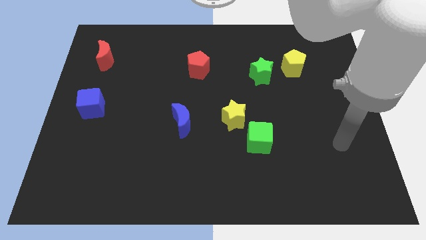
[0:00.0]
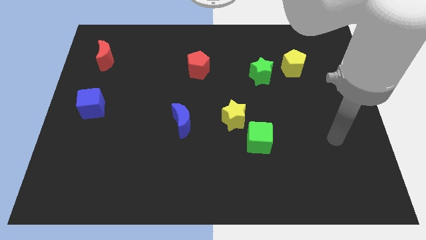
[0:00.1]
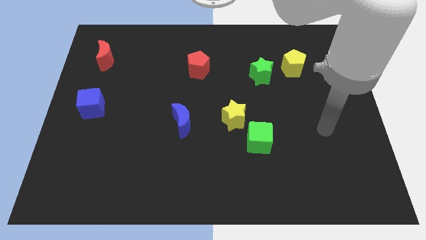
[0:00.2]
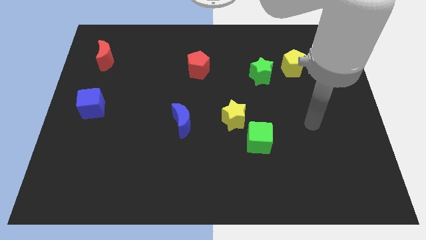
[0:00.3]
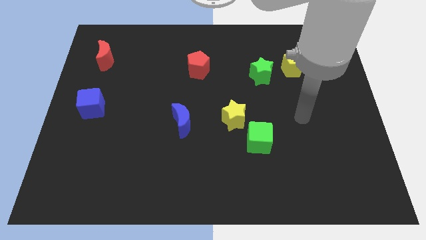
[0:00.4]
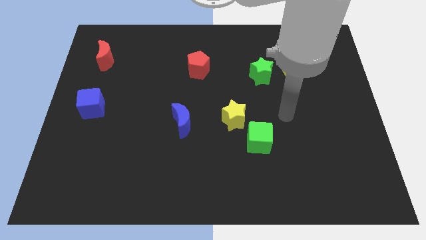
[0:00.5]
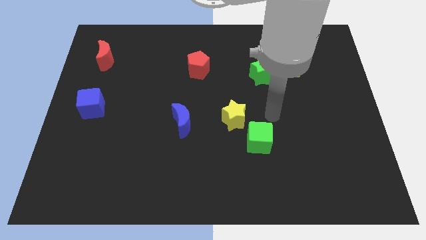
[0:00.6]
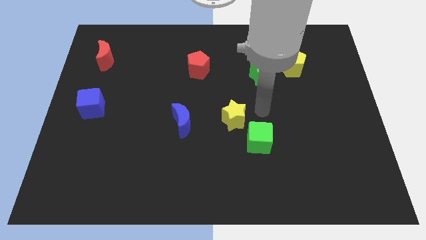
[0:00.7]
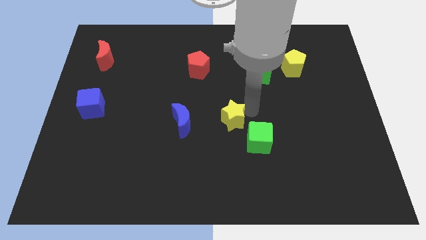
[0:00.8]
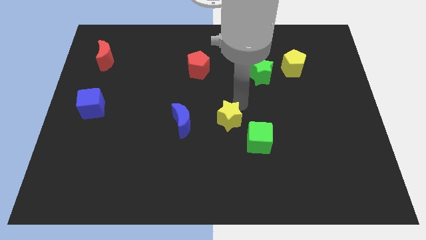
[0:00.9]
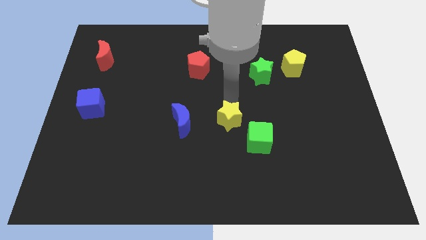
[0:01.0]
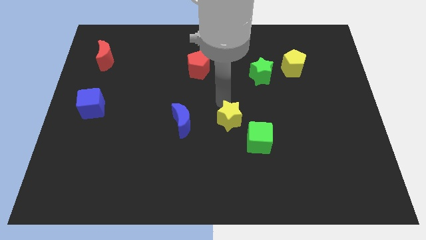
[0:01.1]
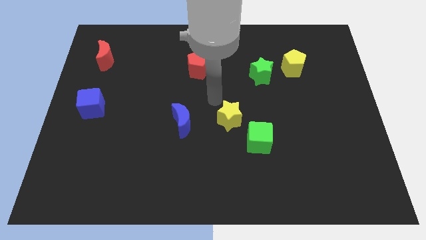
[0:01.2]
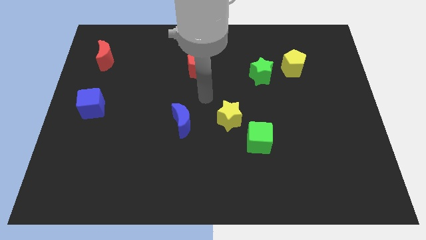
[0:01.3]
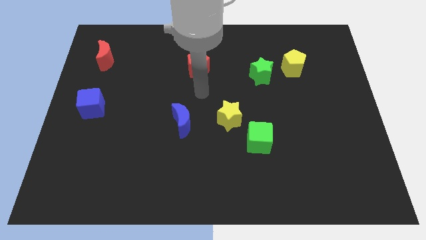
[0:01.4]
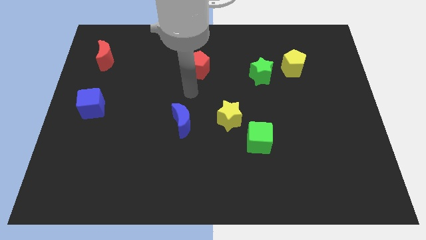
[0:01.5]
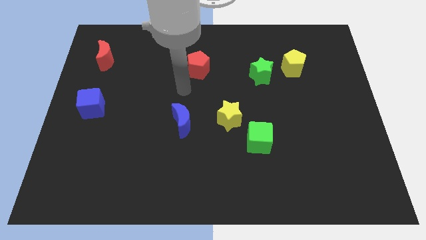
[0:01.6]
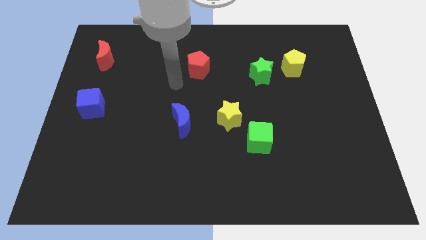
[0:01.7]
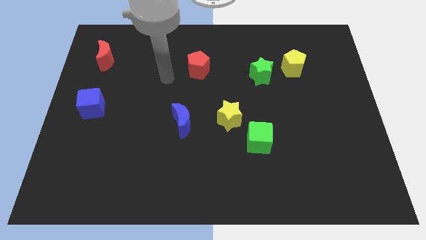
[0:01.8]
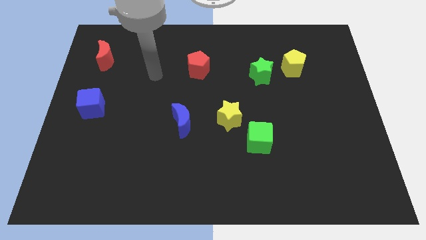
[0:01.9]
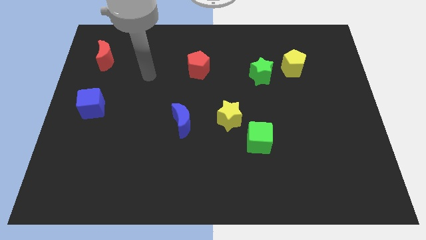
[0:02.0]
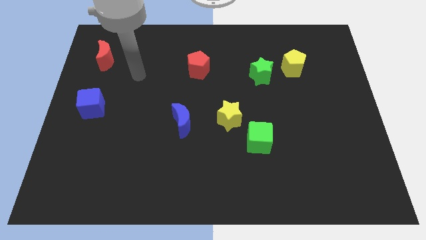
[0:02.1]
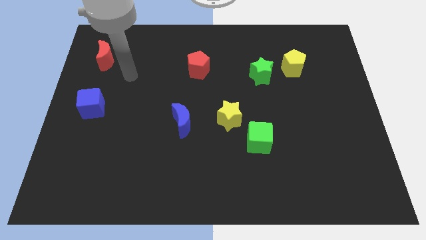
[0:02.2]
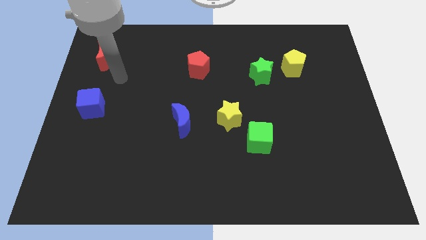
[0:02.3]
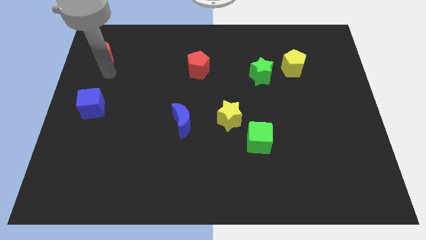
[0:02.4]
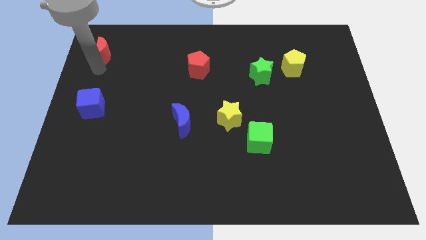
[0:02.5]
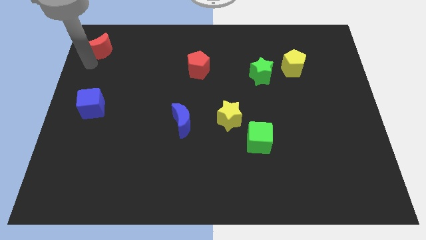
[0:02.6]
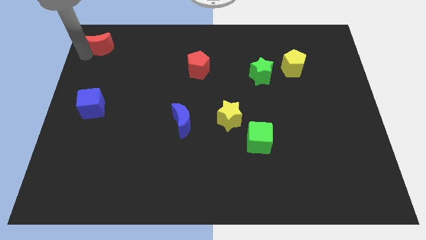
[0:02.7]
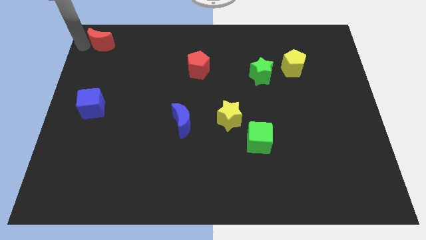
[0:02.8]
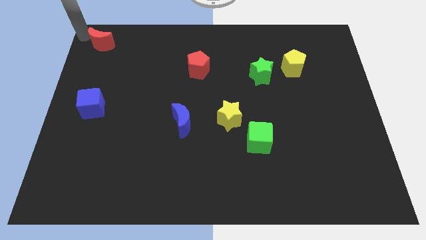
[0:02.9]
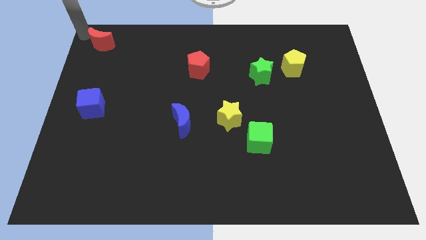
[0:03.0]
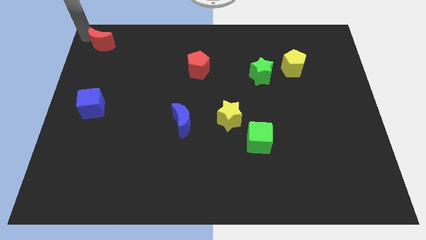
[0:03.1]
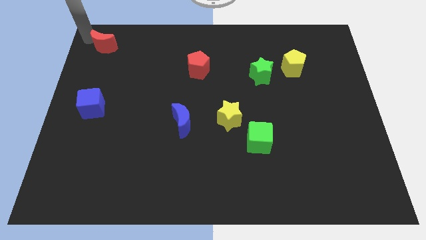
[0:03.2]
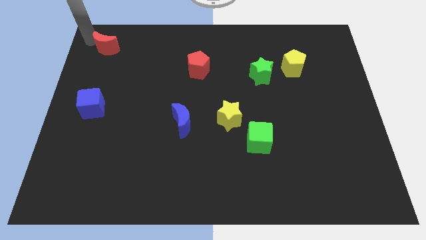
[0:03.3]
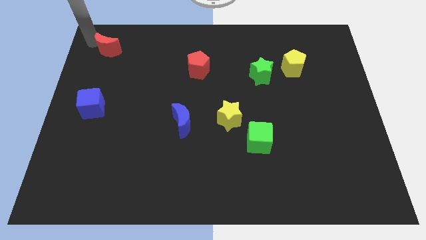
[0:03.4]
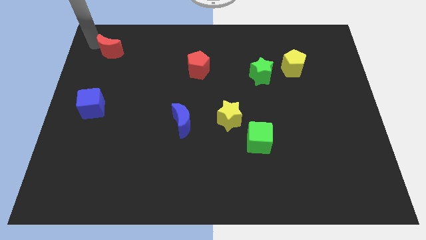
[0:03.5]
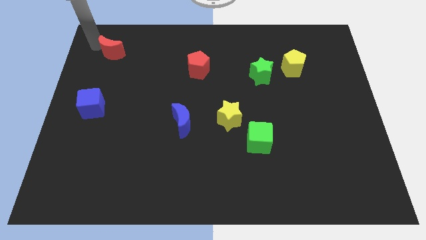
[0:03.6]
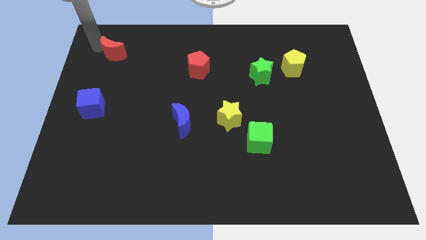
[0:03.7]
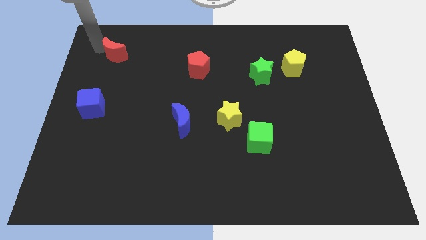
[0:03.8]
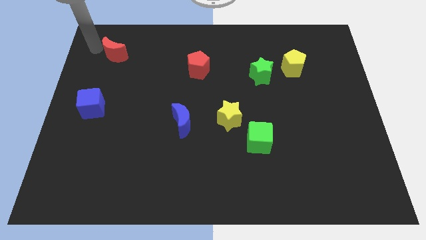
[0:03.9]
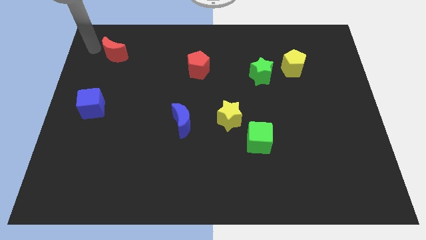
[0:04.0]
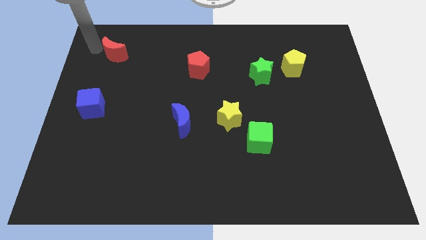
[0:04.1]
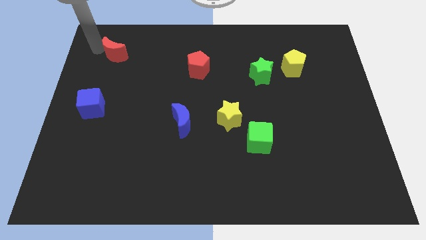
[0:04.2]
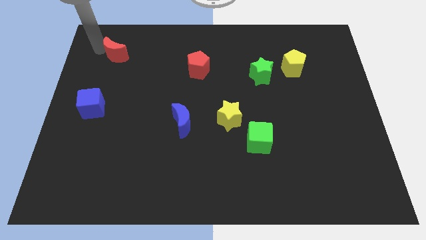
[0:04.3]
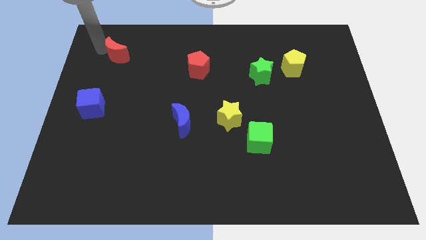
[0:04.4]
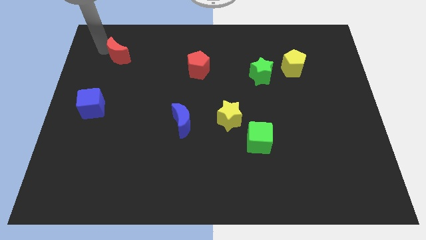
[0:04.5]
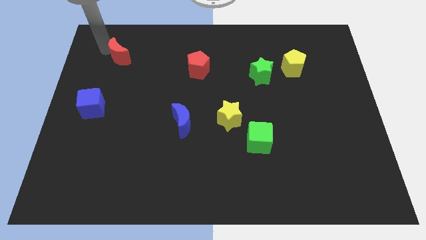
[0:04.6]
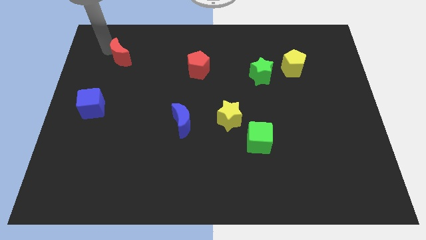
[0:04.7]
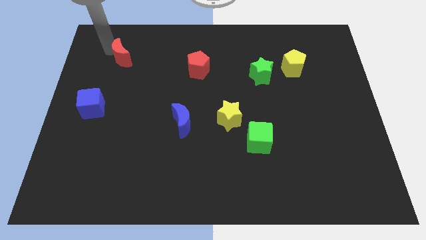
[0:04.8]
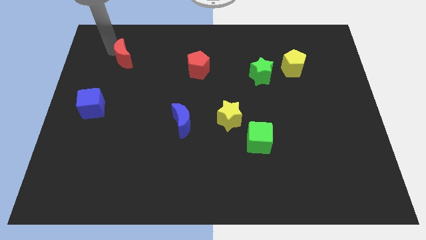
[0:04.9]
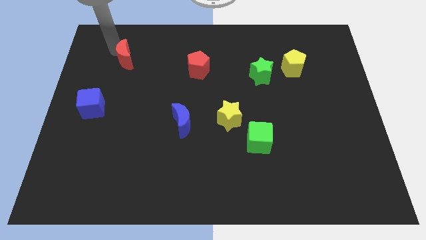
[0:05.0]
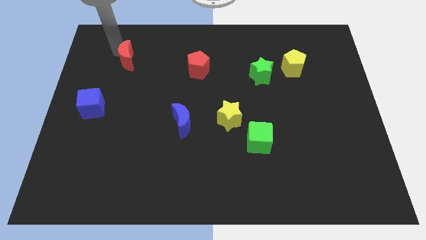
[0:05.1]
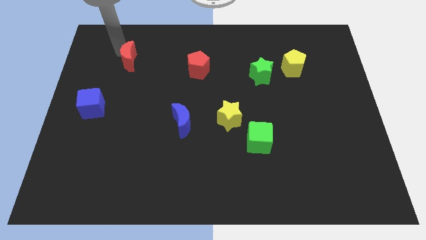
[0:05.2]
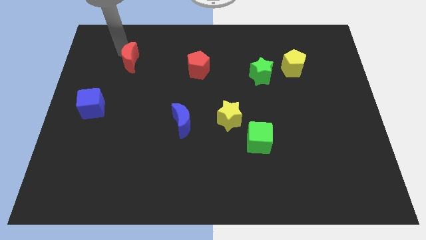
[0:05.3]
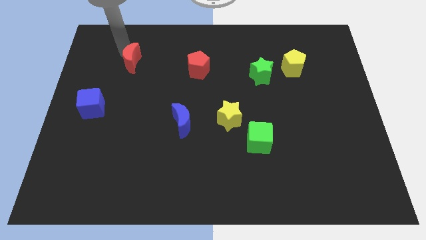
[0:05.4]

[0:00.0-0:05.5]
push the red moon to the right somewhat

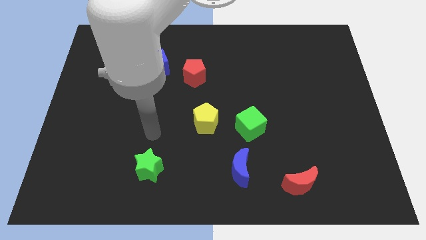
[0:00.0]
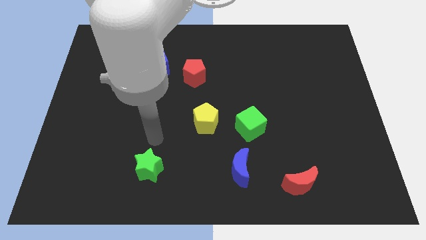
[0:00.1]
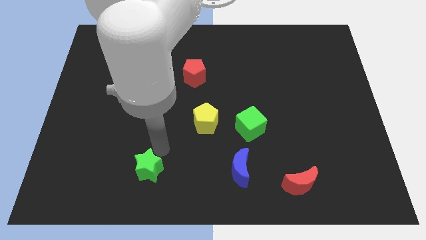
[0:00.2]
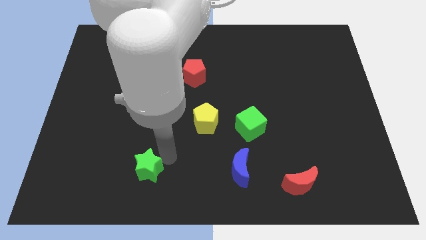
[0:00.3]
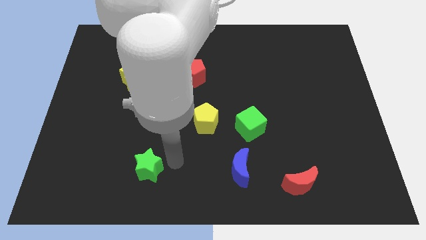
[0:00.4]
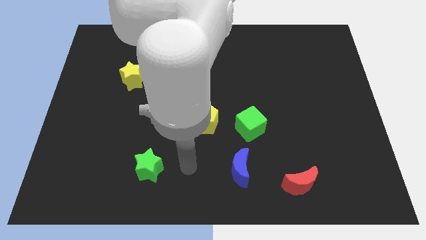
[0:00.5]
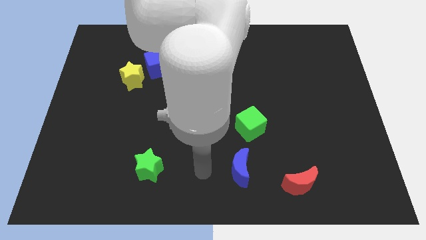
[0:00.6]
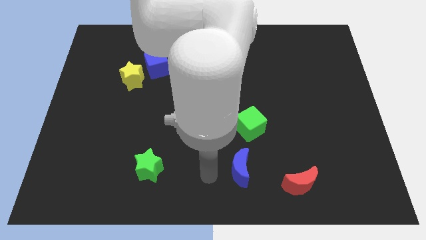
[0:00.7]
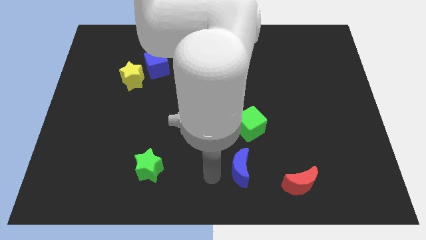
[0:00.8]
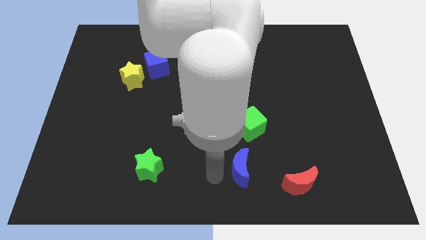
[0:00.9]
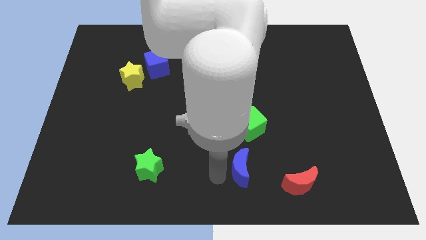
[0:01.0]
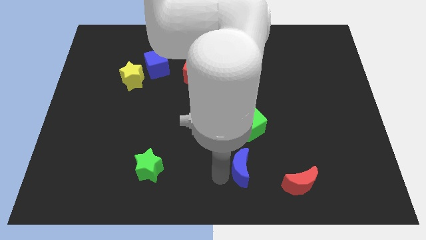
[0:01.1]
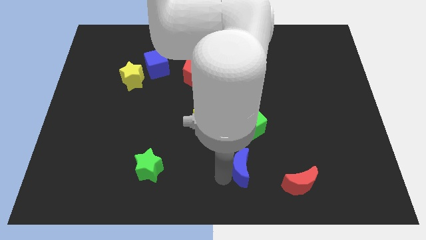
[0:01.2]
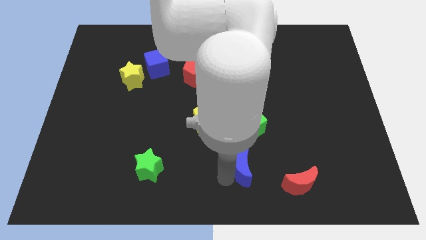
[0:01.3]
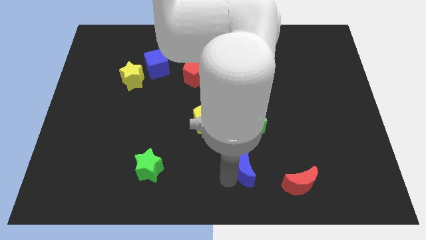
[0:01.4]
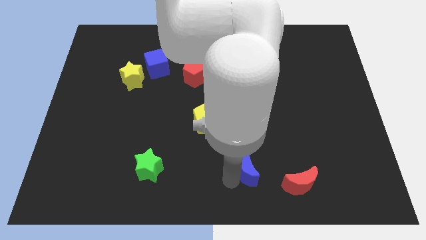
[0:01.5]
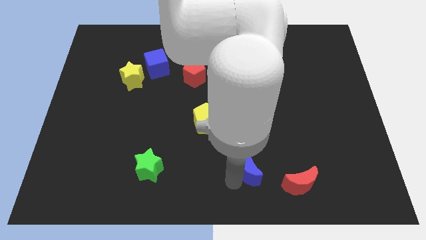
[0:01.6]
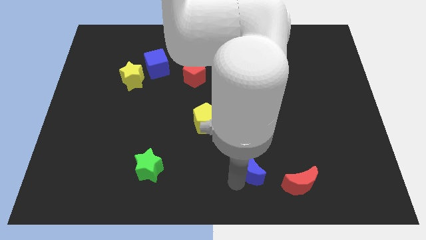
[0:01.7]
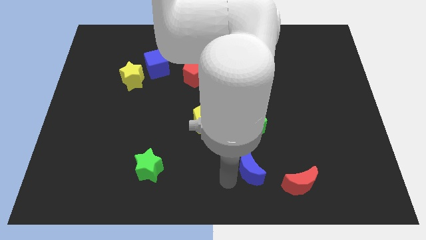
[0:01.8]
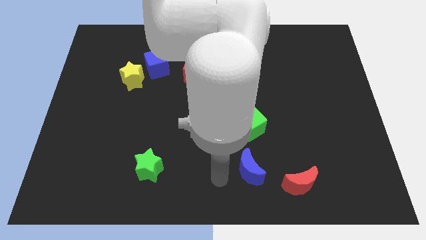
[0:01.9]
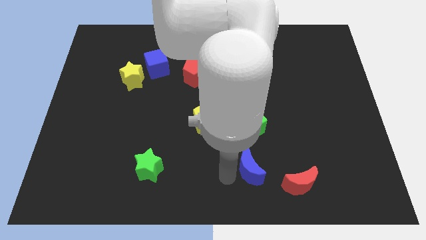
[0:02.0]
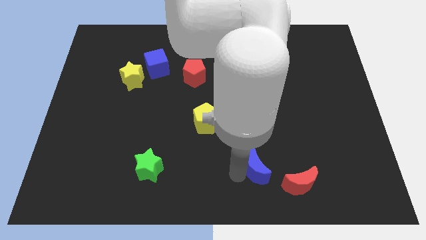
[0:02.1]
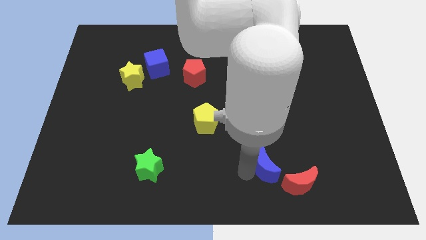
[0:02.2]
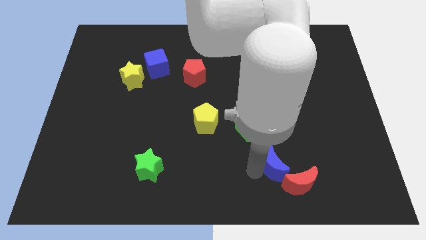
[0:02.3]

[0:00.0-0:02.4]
slide the blue moon a little to the right

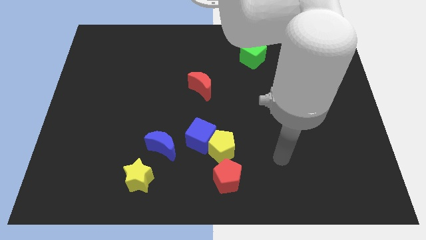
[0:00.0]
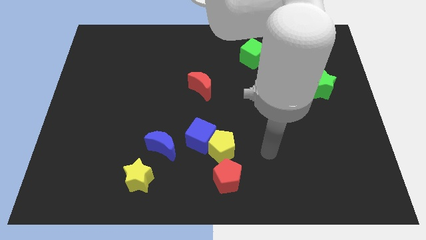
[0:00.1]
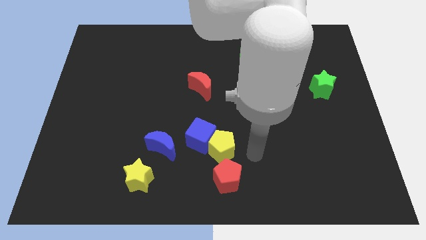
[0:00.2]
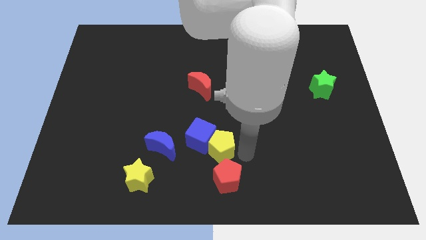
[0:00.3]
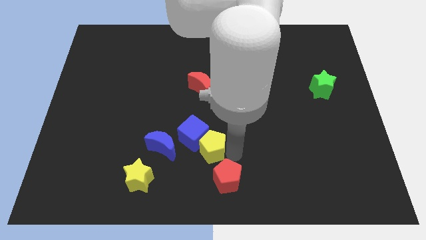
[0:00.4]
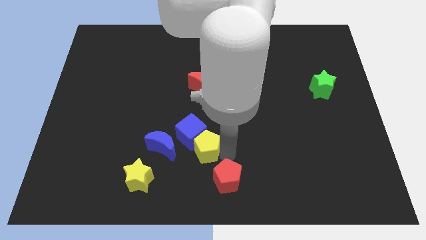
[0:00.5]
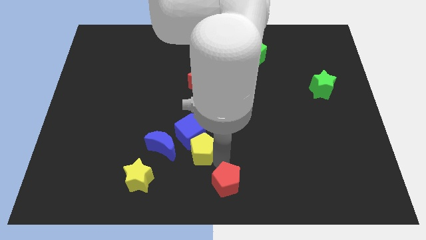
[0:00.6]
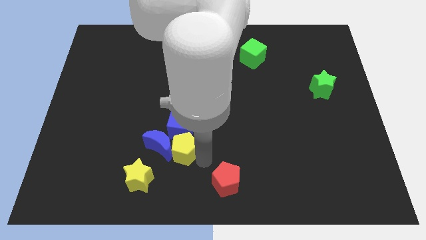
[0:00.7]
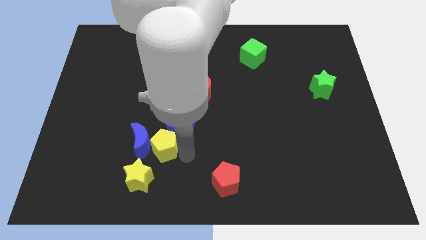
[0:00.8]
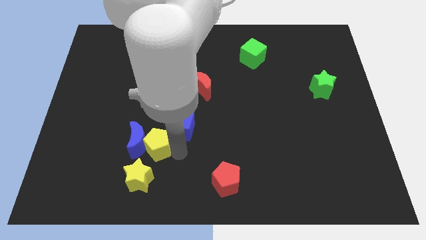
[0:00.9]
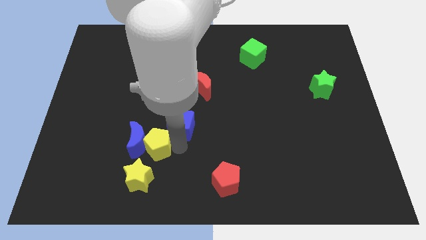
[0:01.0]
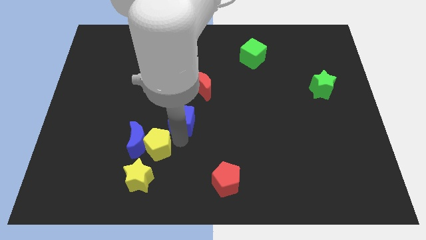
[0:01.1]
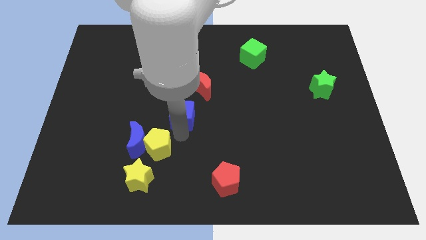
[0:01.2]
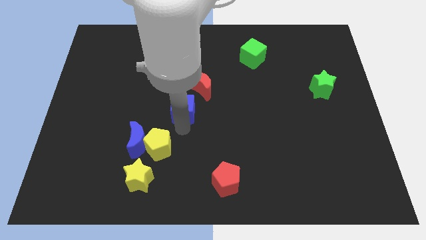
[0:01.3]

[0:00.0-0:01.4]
slide the blue cube somewhat up
